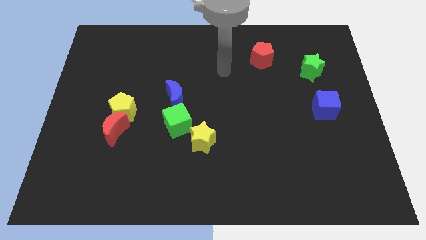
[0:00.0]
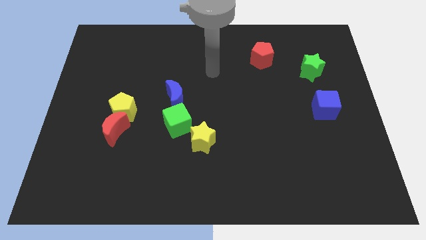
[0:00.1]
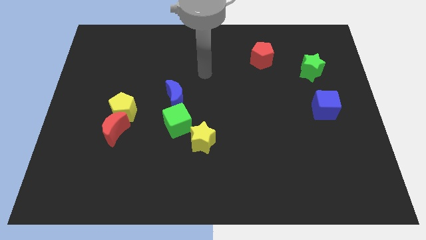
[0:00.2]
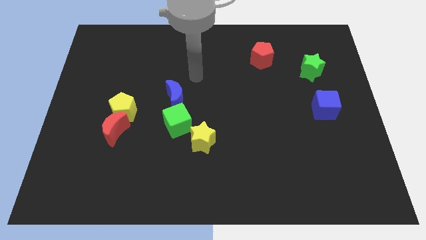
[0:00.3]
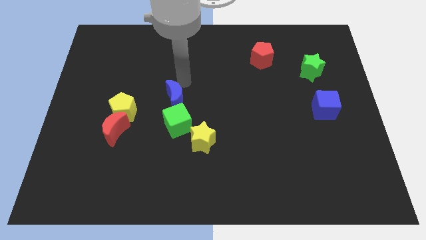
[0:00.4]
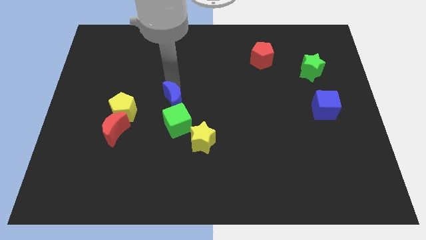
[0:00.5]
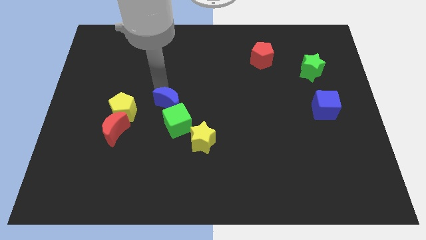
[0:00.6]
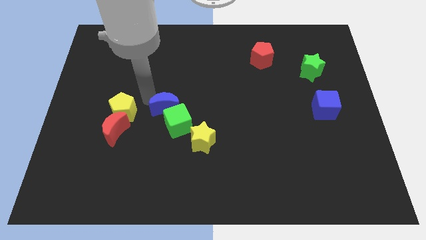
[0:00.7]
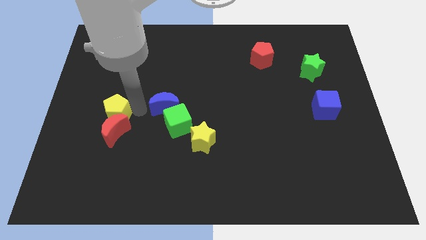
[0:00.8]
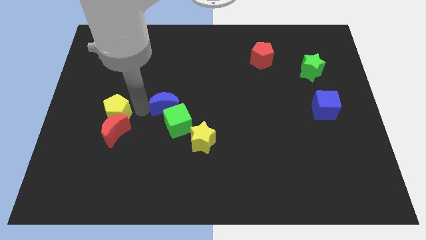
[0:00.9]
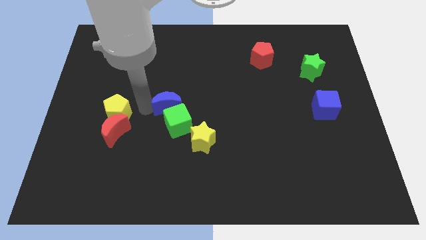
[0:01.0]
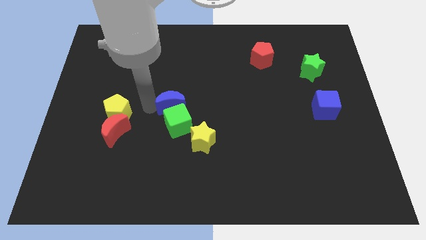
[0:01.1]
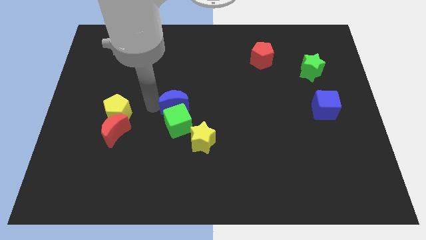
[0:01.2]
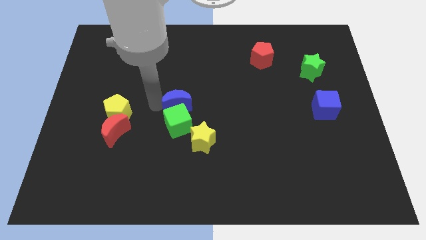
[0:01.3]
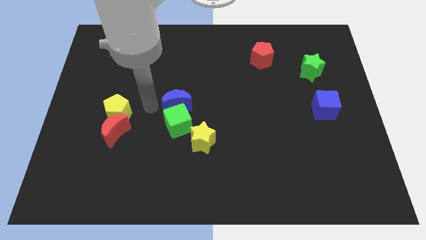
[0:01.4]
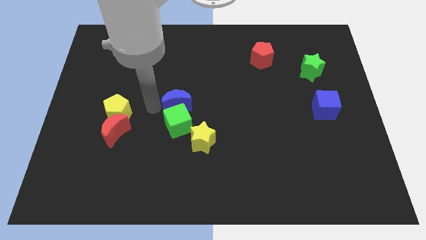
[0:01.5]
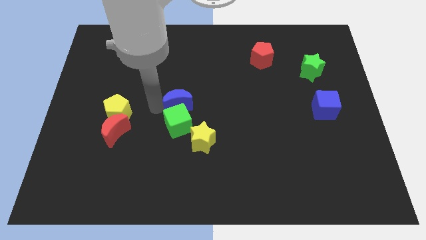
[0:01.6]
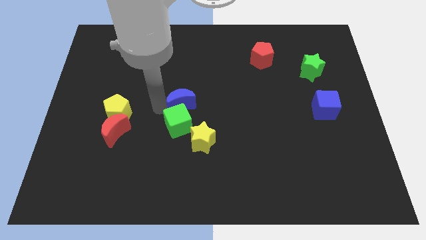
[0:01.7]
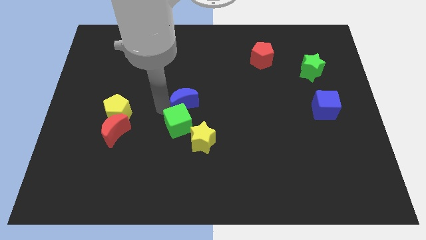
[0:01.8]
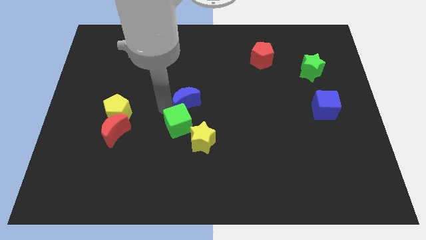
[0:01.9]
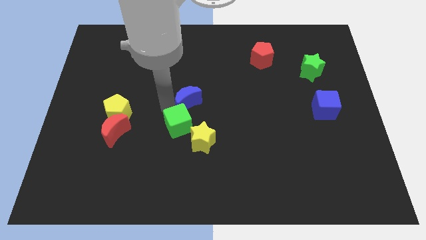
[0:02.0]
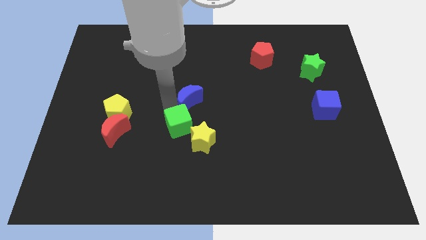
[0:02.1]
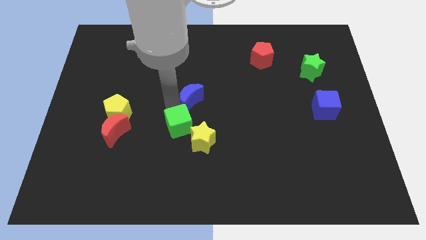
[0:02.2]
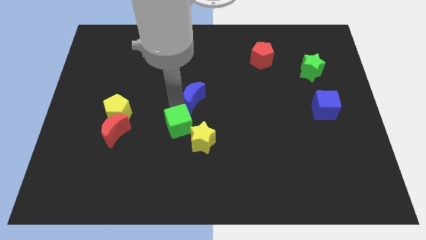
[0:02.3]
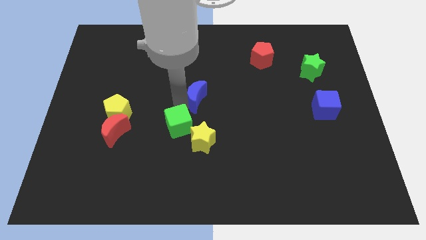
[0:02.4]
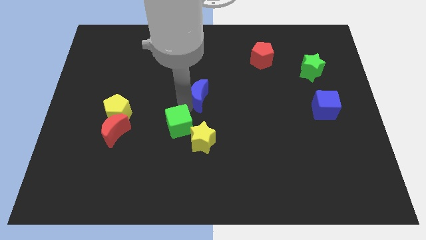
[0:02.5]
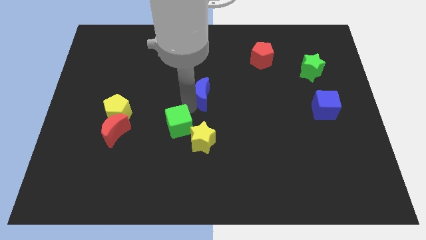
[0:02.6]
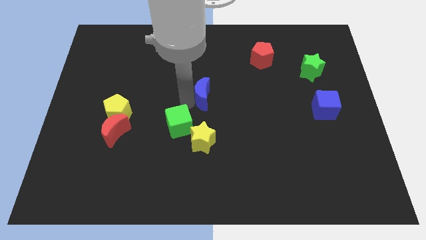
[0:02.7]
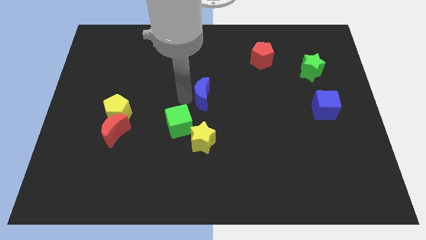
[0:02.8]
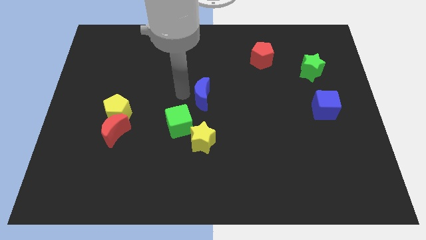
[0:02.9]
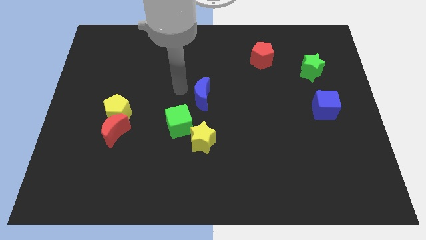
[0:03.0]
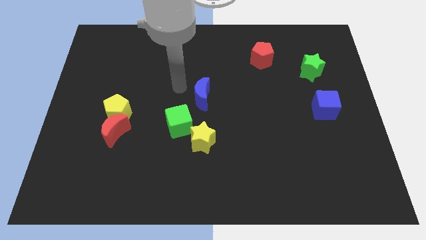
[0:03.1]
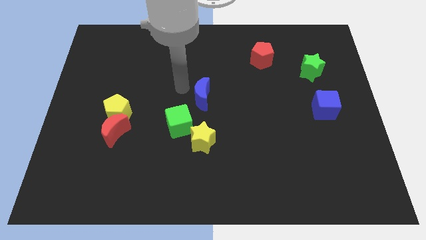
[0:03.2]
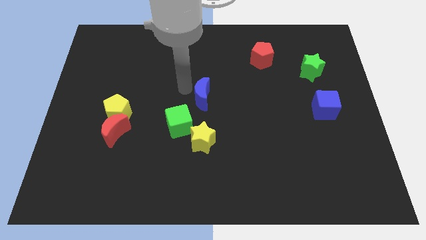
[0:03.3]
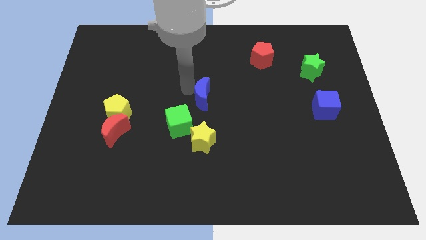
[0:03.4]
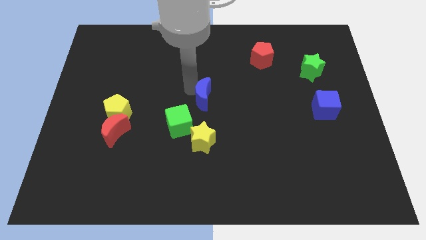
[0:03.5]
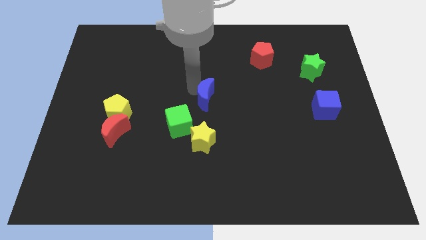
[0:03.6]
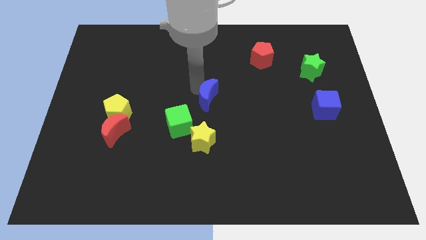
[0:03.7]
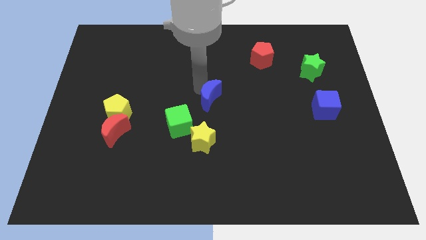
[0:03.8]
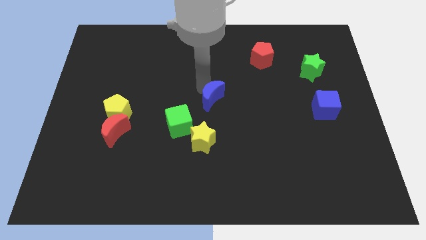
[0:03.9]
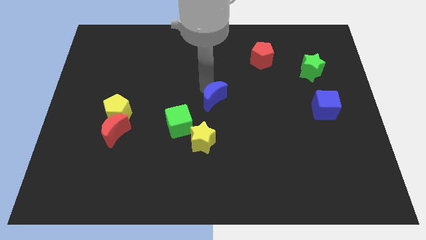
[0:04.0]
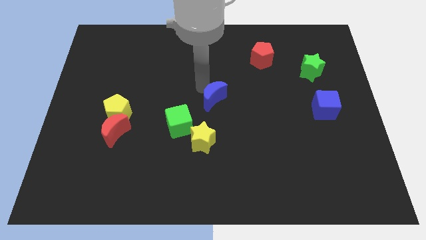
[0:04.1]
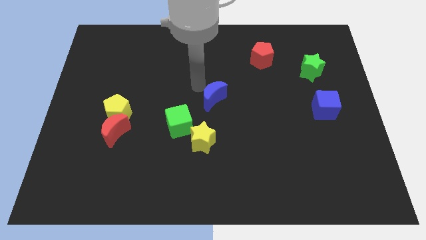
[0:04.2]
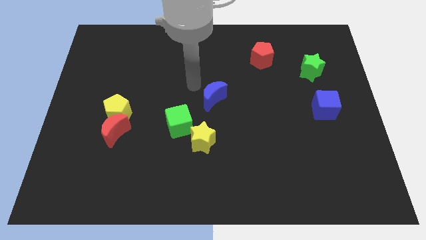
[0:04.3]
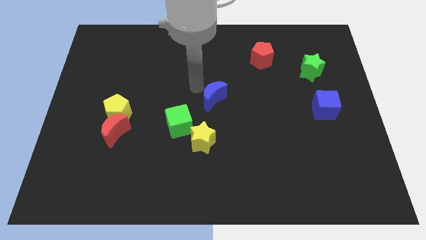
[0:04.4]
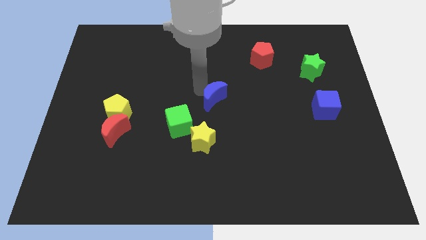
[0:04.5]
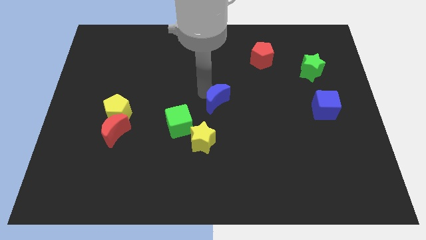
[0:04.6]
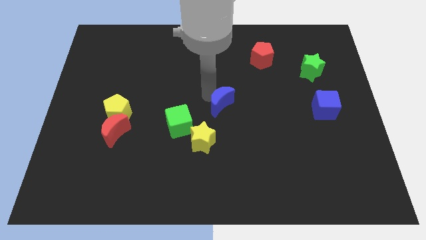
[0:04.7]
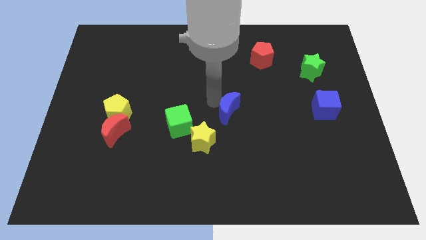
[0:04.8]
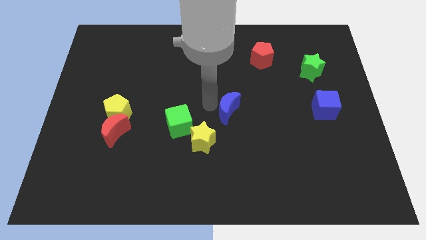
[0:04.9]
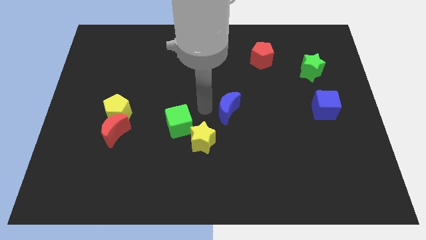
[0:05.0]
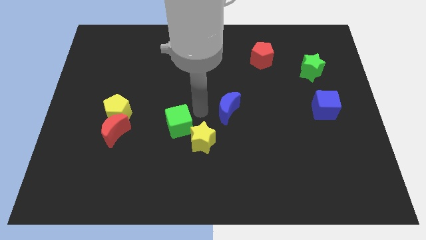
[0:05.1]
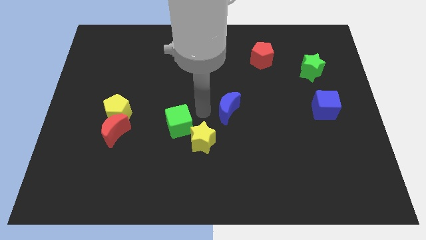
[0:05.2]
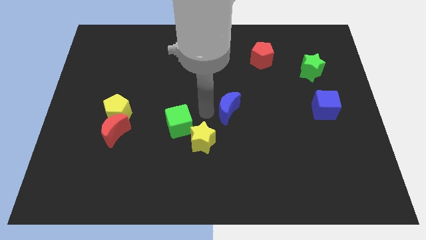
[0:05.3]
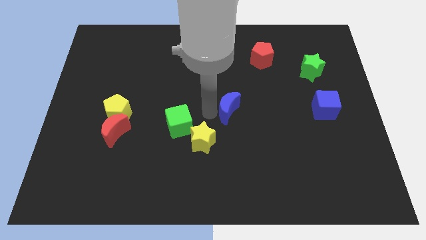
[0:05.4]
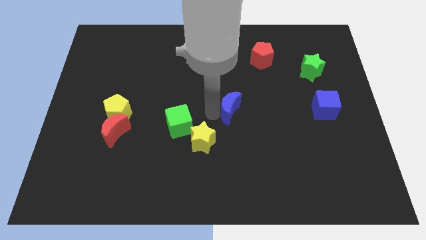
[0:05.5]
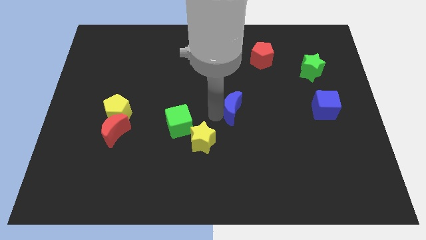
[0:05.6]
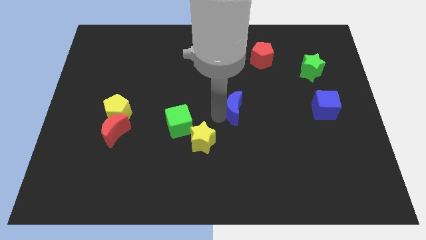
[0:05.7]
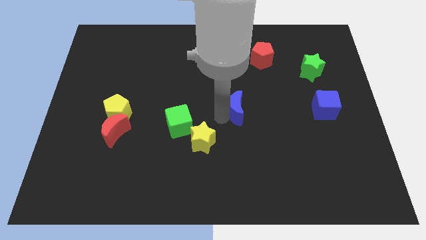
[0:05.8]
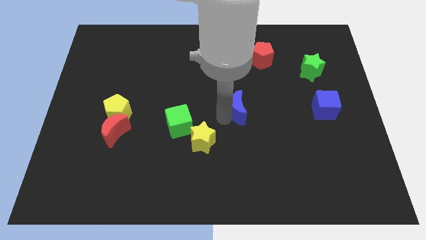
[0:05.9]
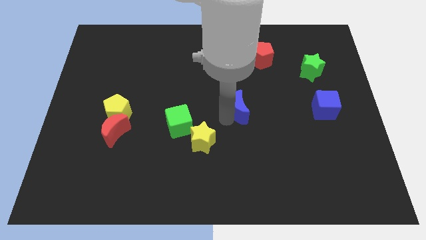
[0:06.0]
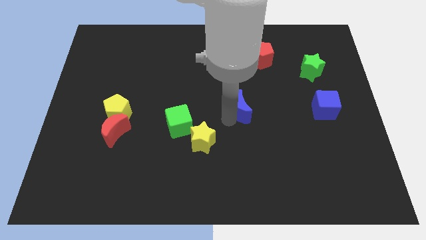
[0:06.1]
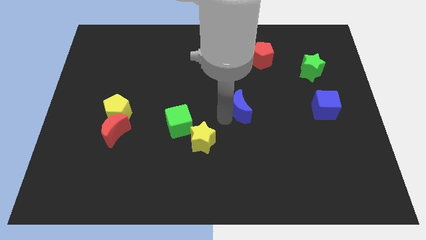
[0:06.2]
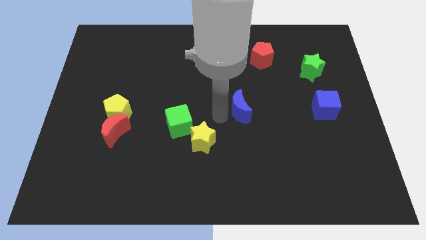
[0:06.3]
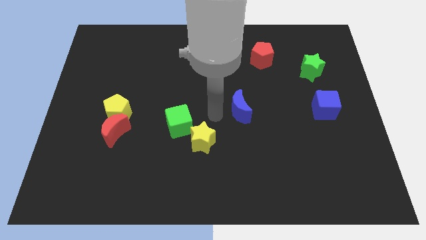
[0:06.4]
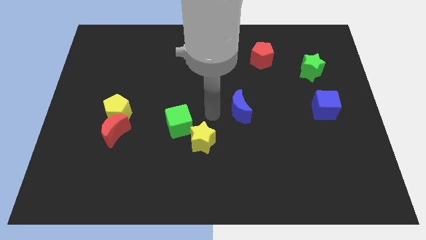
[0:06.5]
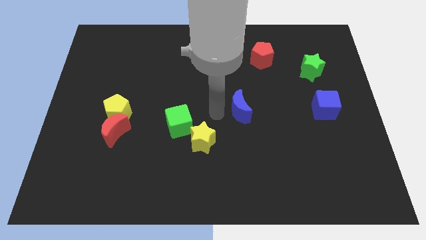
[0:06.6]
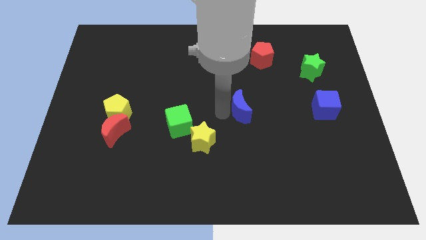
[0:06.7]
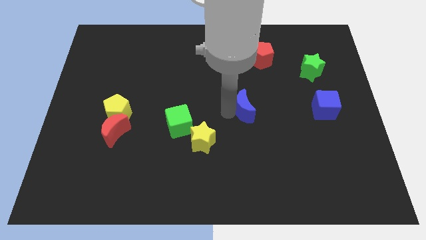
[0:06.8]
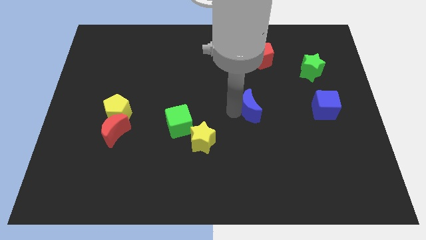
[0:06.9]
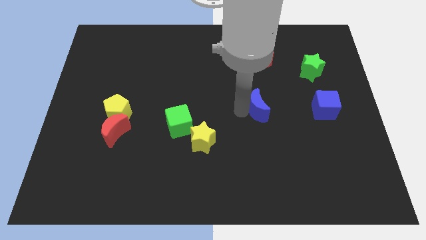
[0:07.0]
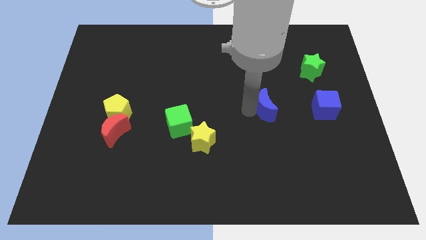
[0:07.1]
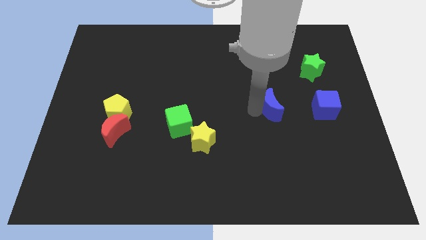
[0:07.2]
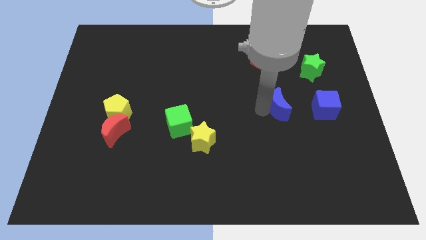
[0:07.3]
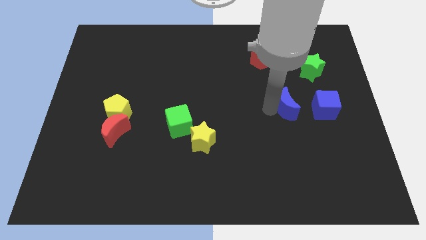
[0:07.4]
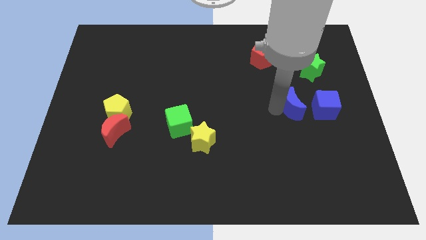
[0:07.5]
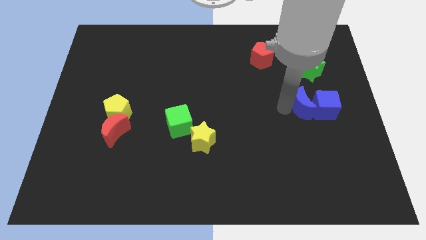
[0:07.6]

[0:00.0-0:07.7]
push the blue moon towards the blue cube
